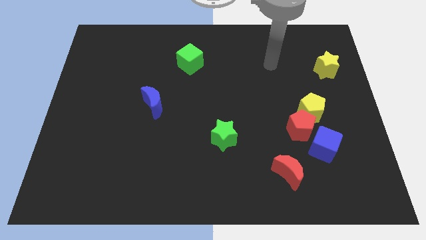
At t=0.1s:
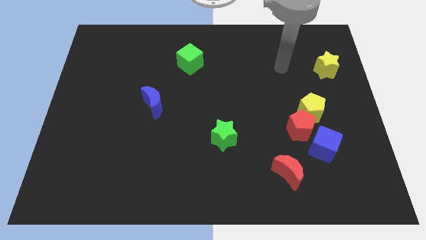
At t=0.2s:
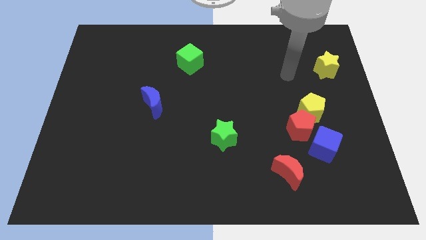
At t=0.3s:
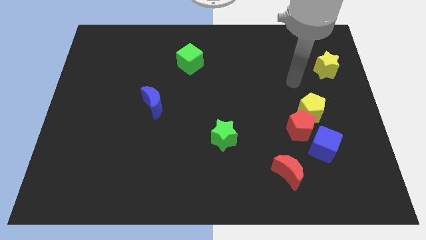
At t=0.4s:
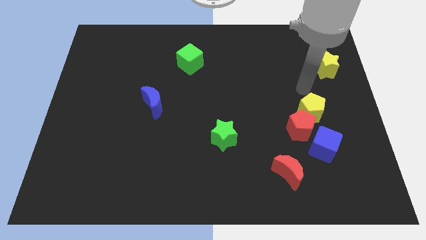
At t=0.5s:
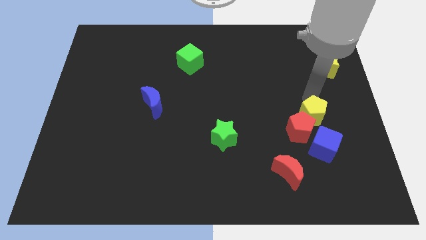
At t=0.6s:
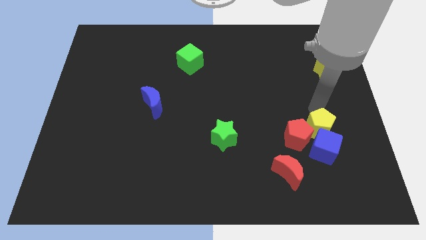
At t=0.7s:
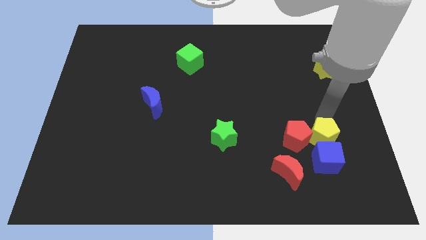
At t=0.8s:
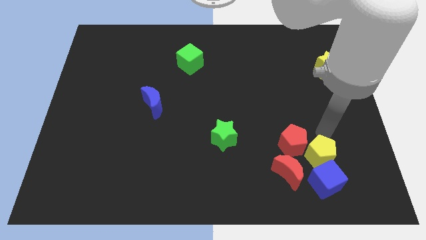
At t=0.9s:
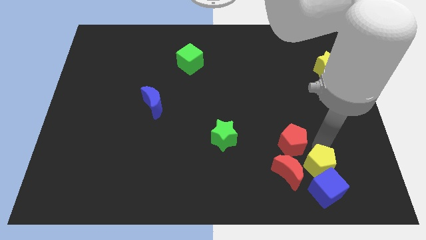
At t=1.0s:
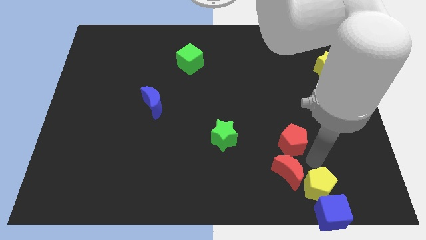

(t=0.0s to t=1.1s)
separate the red pentagon from the yellow pentagon and blue cube

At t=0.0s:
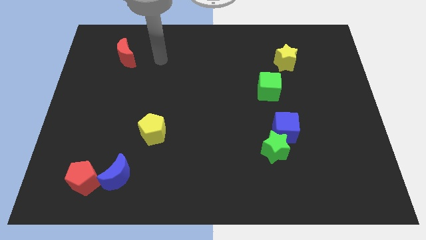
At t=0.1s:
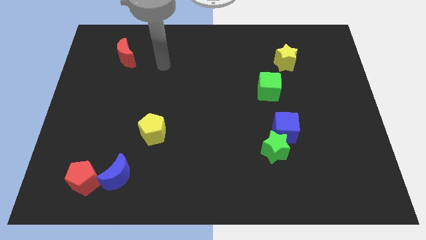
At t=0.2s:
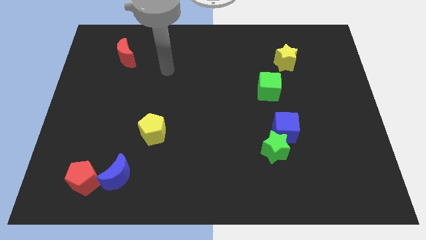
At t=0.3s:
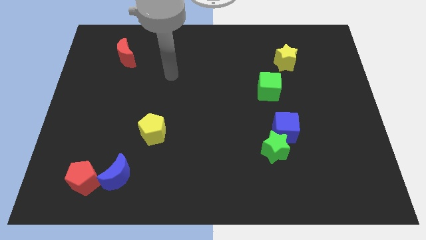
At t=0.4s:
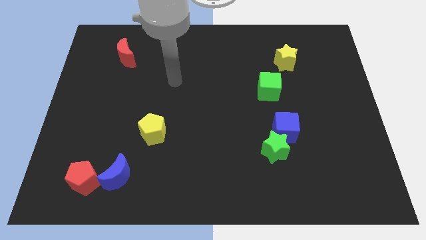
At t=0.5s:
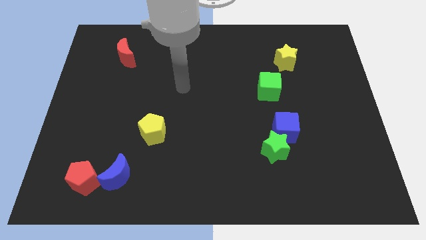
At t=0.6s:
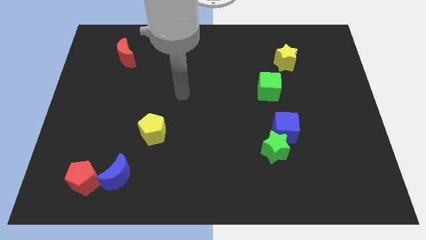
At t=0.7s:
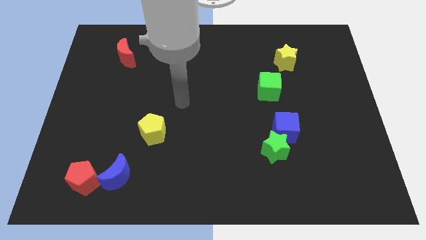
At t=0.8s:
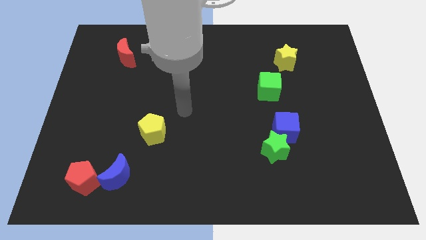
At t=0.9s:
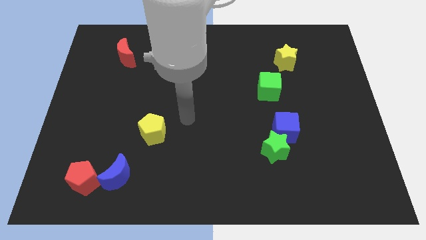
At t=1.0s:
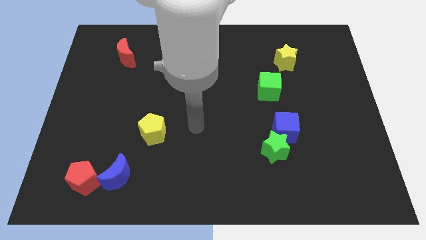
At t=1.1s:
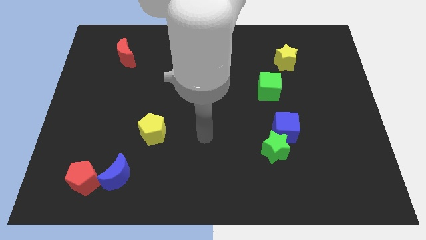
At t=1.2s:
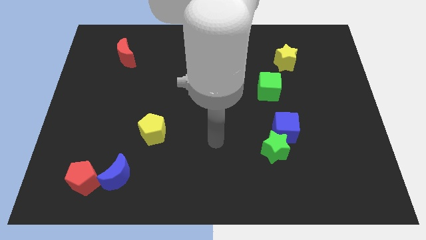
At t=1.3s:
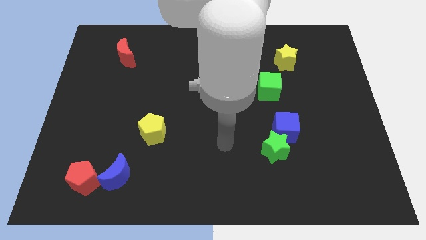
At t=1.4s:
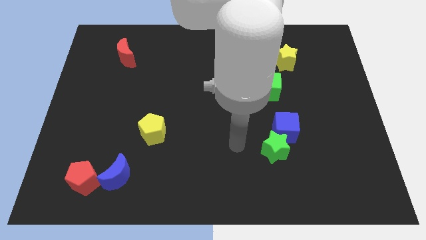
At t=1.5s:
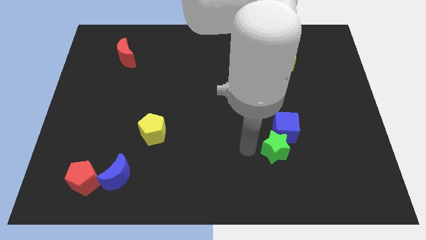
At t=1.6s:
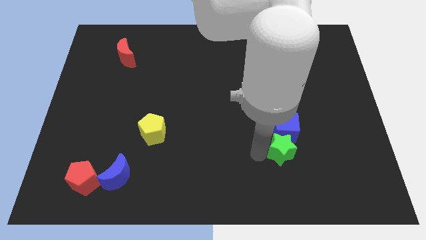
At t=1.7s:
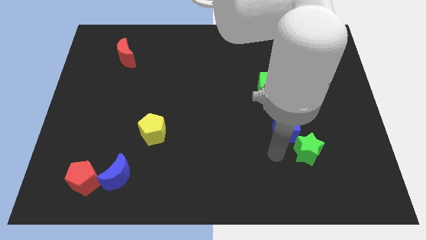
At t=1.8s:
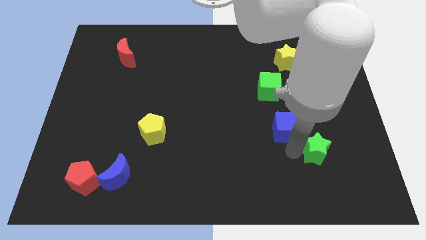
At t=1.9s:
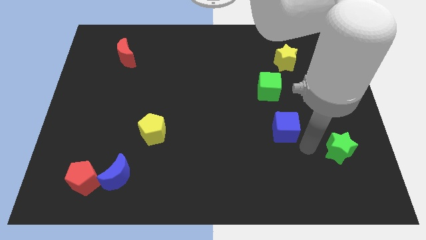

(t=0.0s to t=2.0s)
pull the blue cube apart from the green star

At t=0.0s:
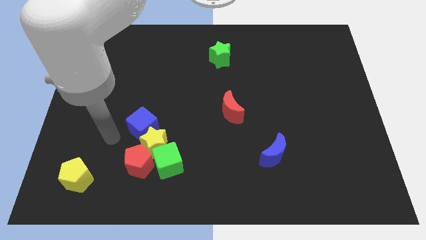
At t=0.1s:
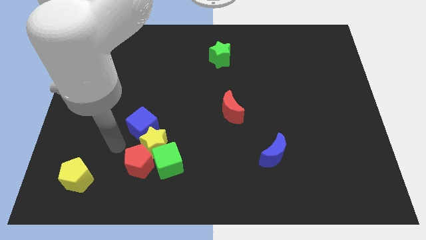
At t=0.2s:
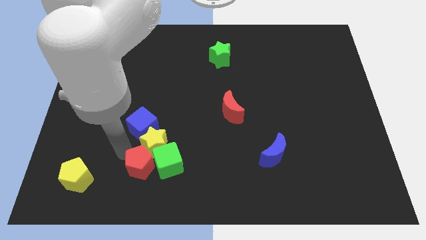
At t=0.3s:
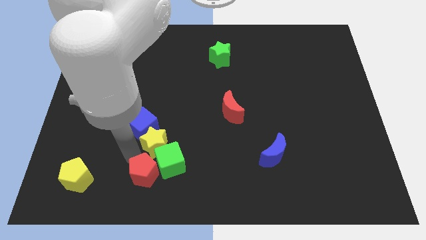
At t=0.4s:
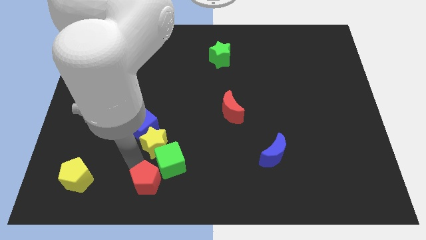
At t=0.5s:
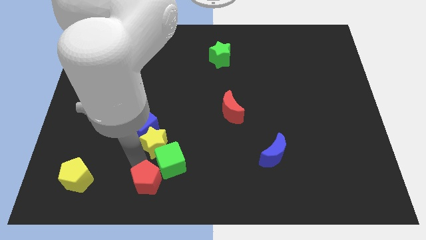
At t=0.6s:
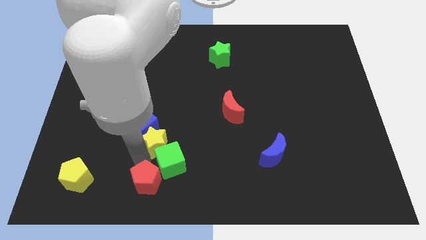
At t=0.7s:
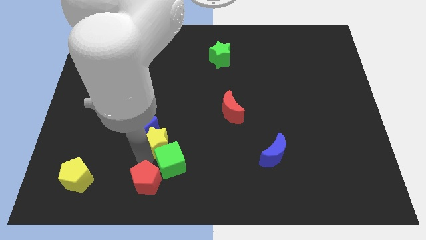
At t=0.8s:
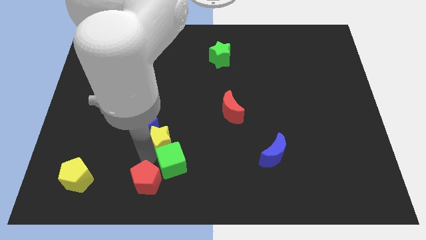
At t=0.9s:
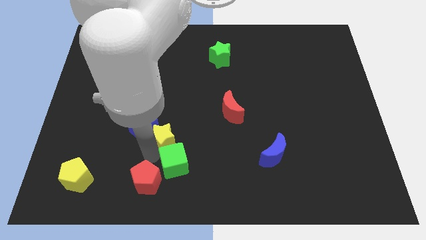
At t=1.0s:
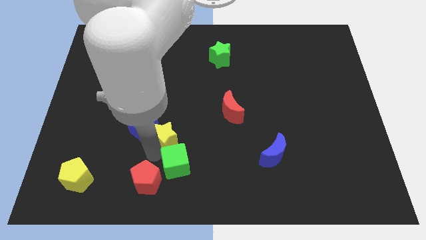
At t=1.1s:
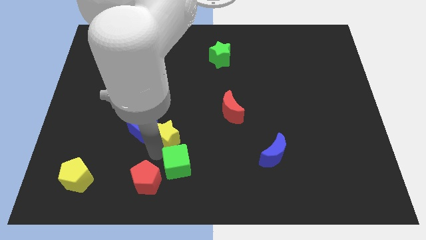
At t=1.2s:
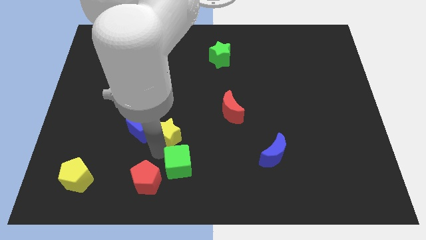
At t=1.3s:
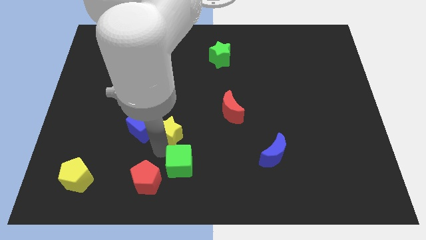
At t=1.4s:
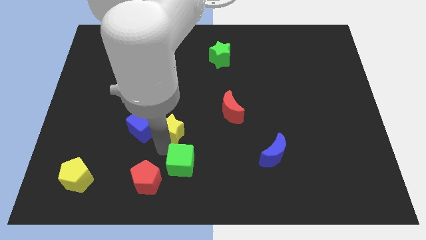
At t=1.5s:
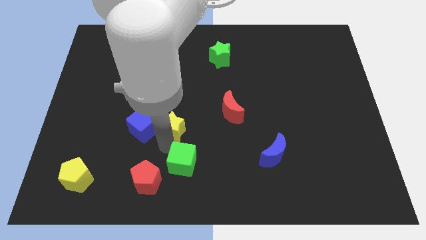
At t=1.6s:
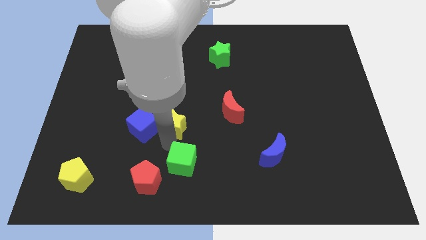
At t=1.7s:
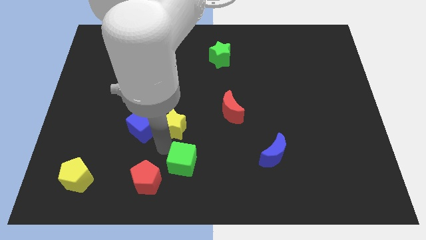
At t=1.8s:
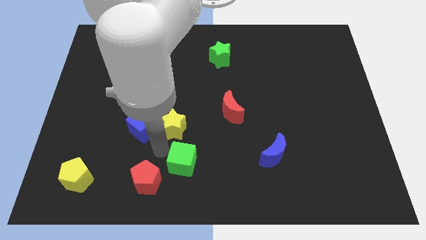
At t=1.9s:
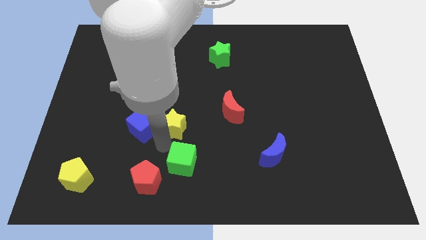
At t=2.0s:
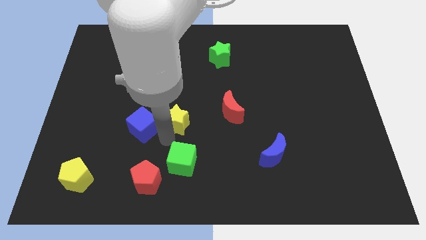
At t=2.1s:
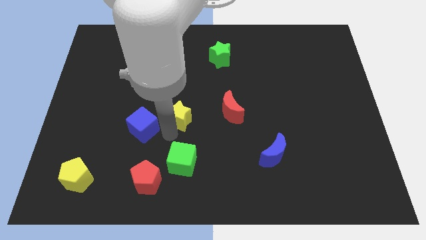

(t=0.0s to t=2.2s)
move the yellow star away from the blue cube, red pentagon, and green cube

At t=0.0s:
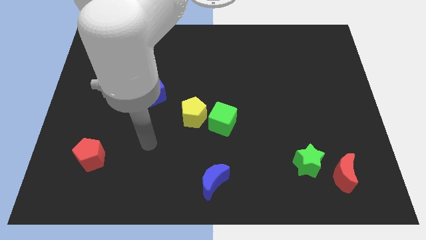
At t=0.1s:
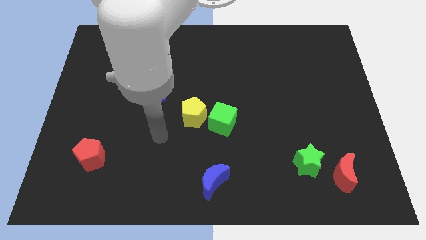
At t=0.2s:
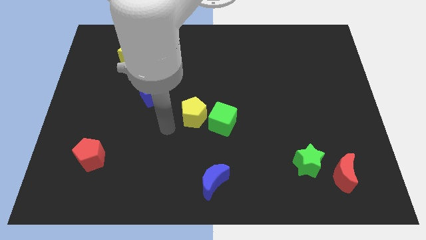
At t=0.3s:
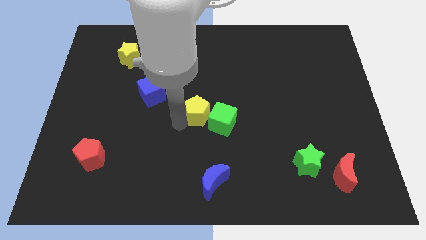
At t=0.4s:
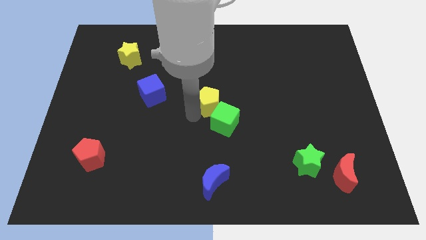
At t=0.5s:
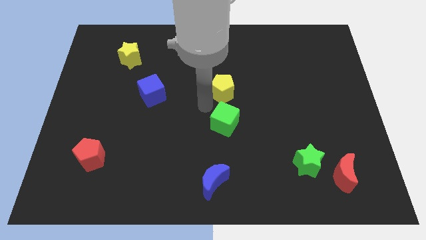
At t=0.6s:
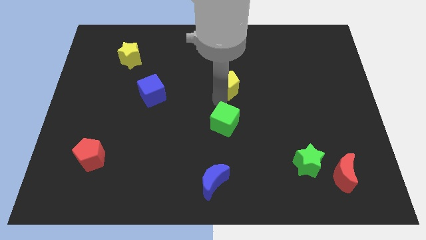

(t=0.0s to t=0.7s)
pull the green cube apart from the yellow pentagon

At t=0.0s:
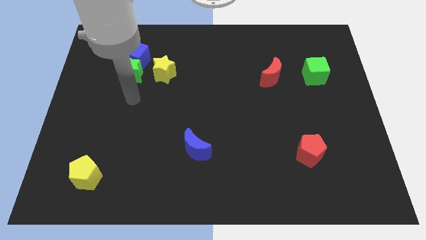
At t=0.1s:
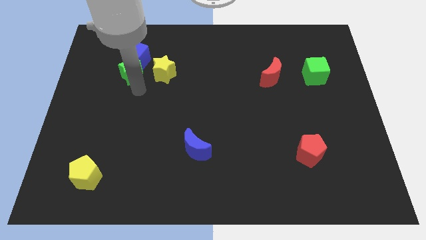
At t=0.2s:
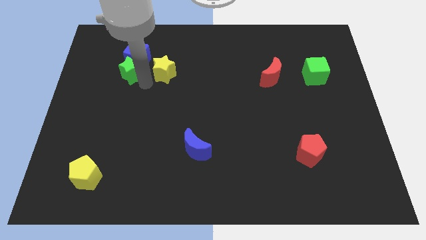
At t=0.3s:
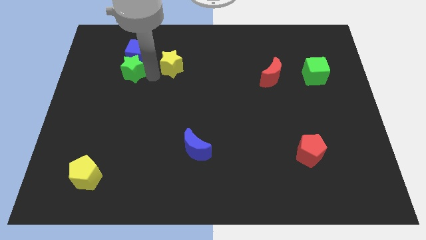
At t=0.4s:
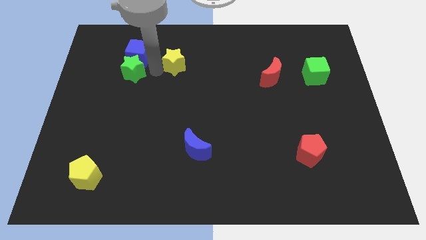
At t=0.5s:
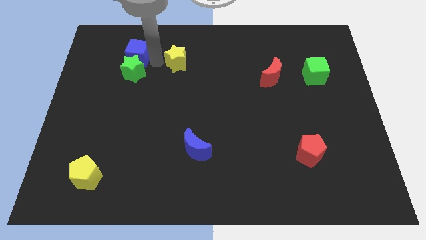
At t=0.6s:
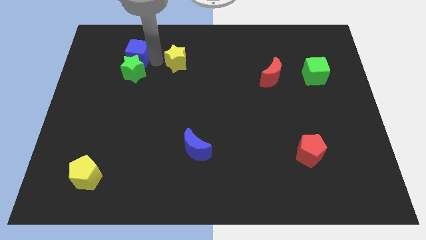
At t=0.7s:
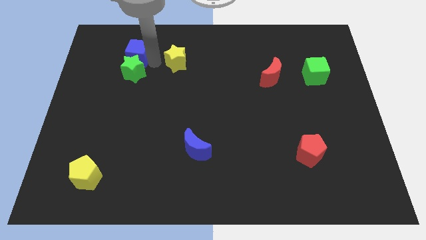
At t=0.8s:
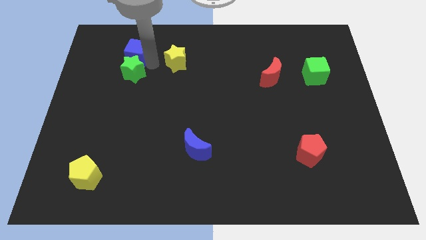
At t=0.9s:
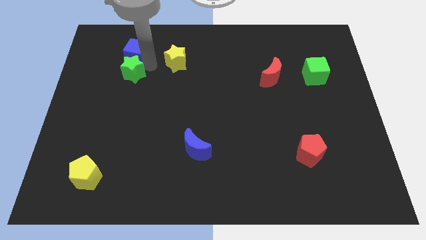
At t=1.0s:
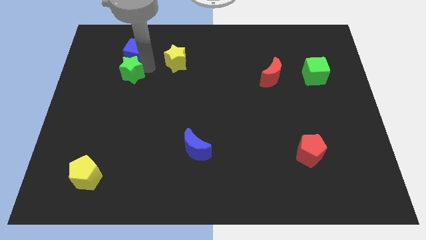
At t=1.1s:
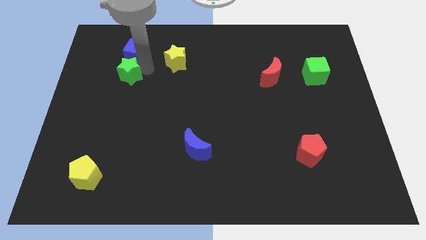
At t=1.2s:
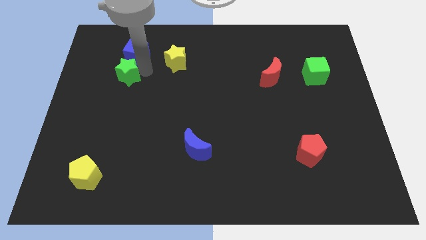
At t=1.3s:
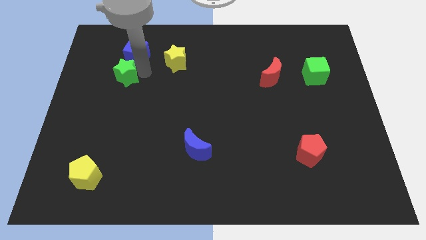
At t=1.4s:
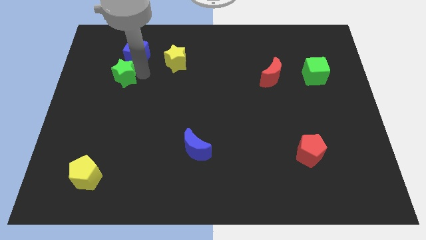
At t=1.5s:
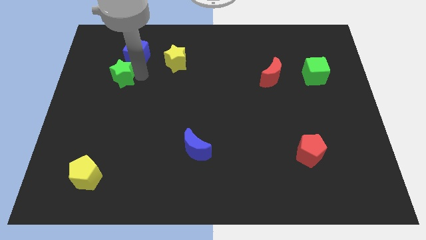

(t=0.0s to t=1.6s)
move the green star away from the blue cube and yellow star

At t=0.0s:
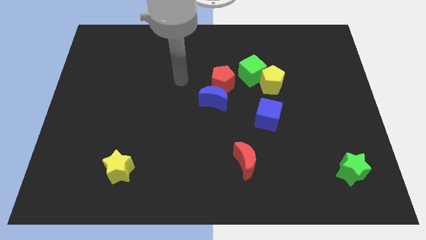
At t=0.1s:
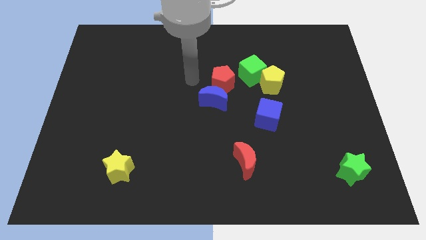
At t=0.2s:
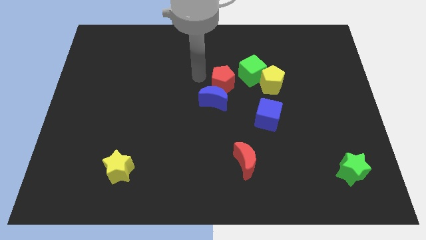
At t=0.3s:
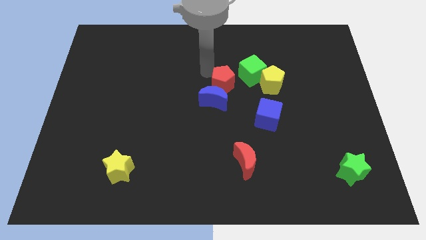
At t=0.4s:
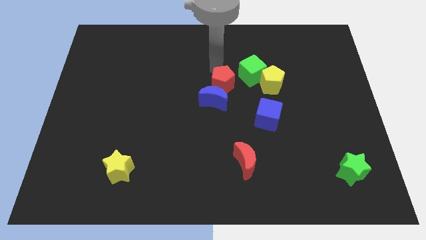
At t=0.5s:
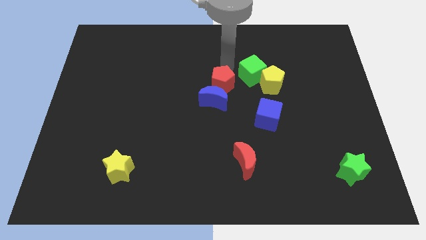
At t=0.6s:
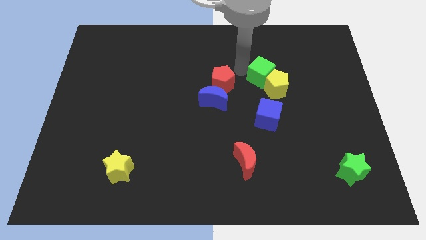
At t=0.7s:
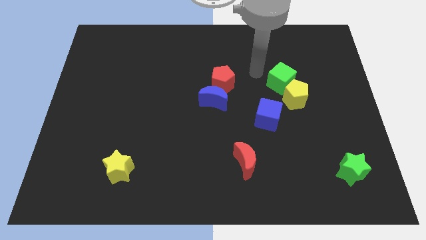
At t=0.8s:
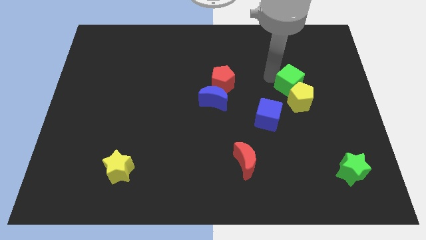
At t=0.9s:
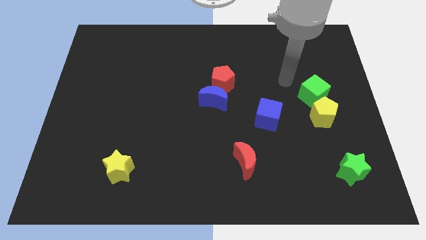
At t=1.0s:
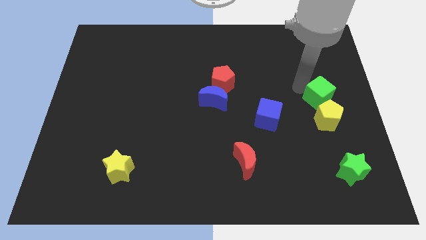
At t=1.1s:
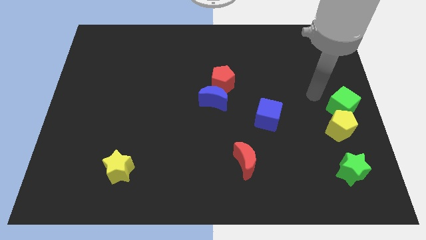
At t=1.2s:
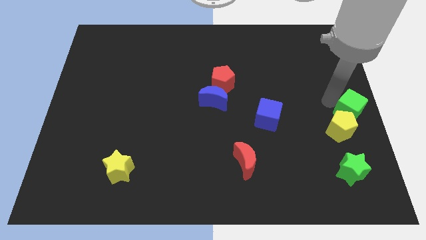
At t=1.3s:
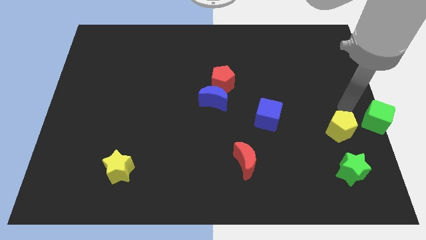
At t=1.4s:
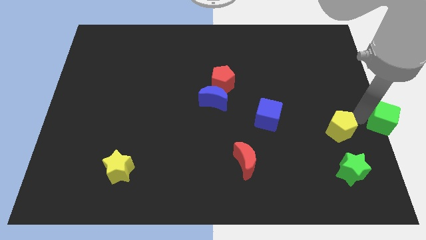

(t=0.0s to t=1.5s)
separate the yellow pentagon from the green cube
